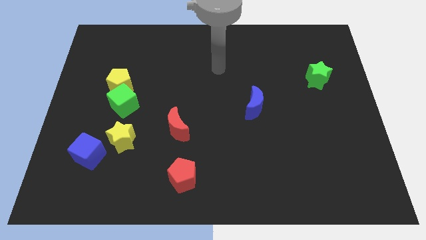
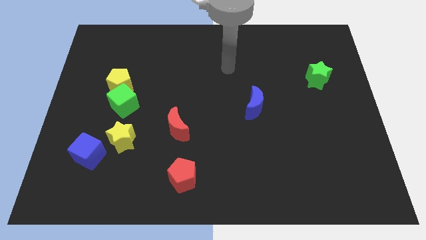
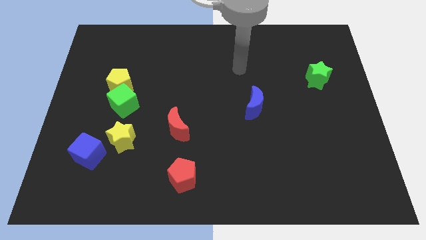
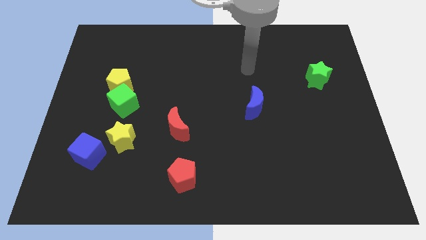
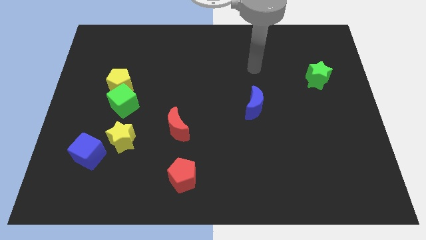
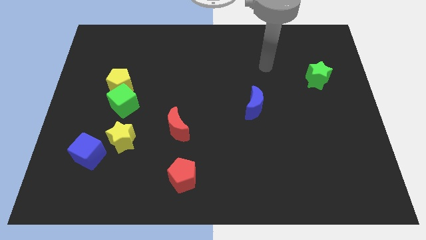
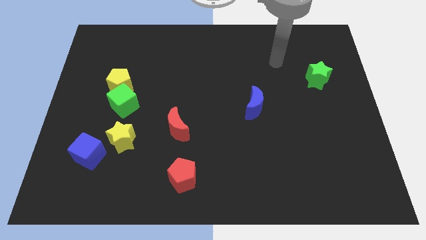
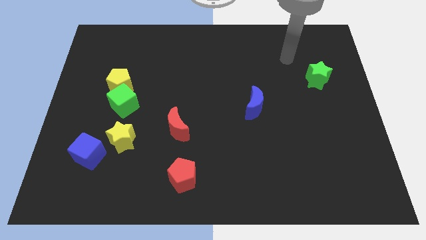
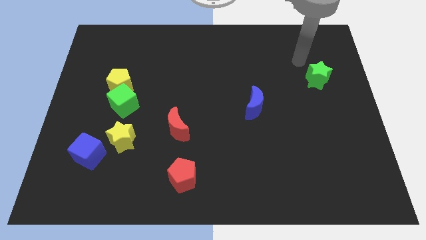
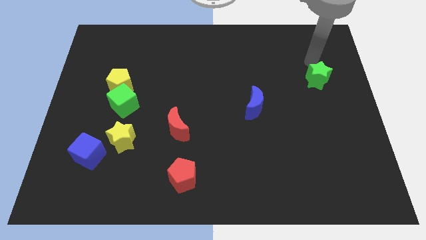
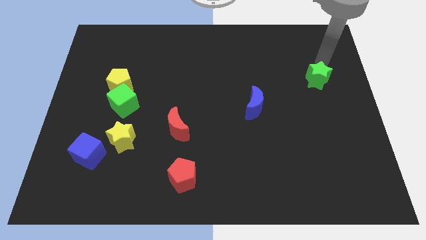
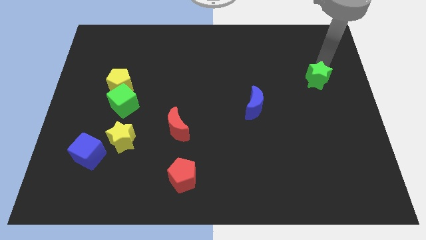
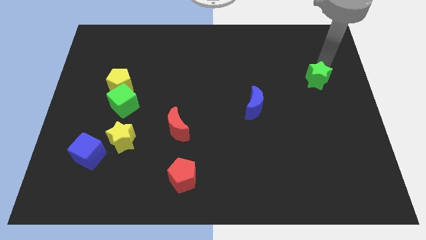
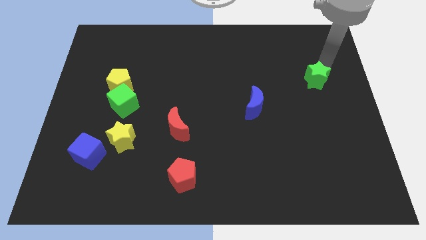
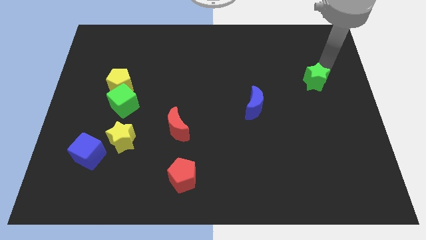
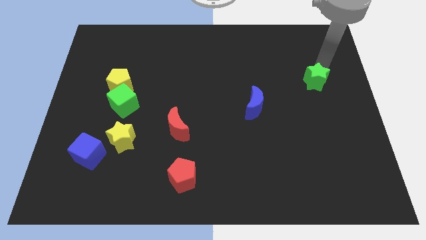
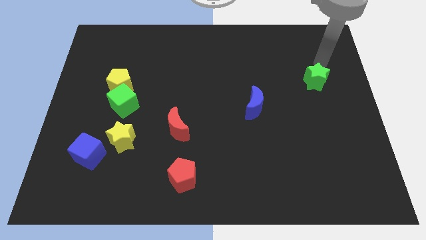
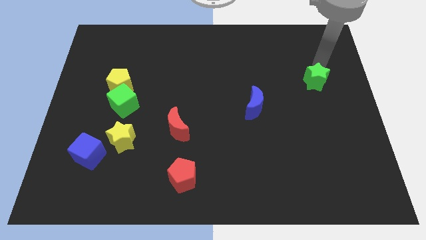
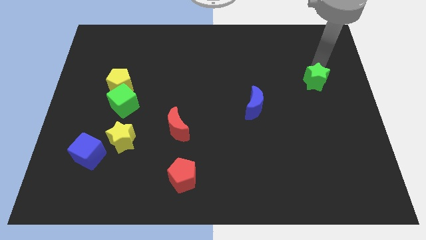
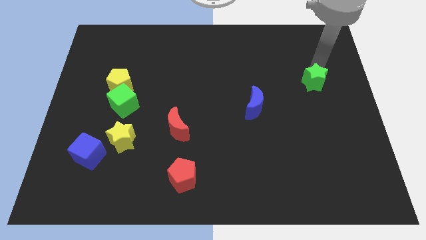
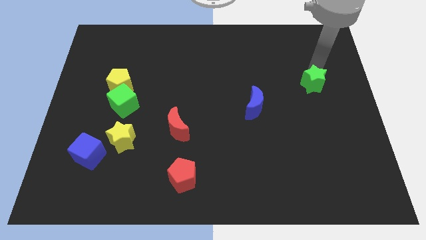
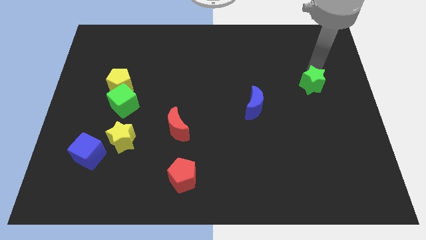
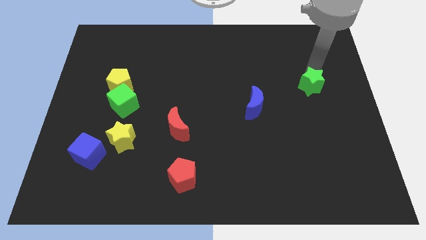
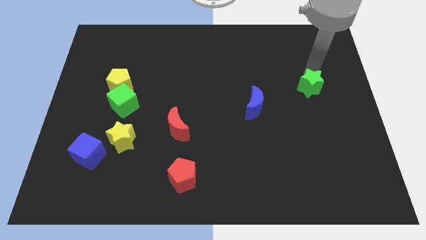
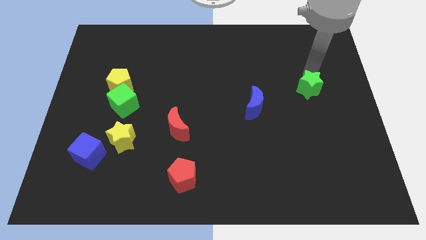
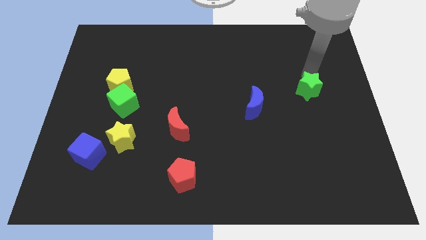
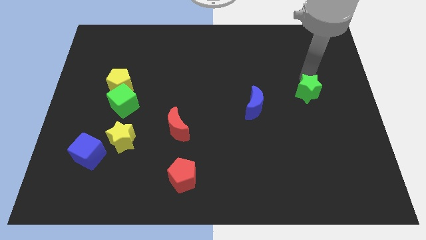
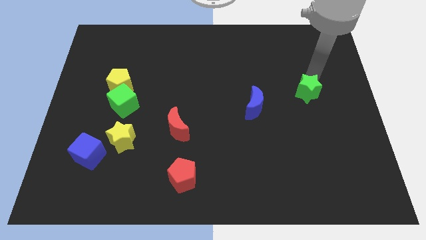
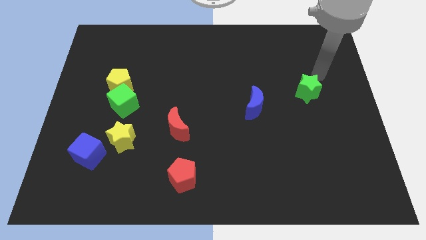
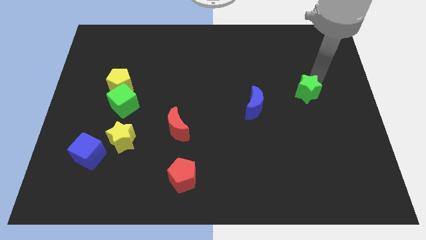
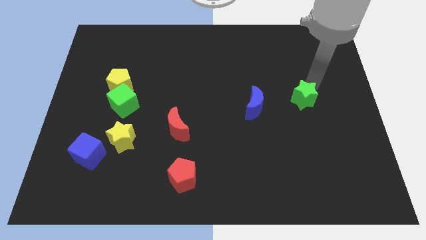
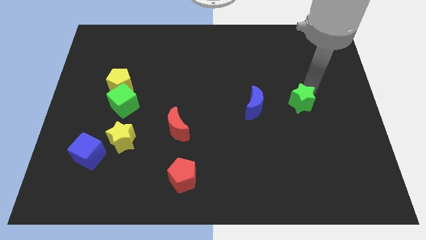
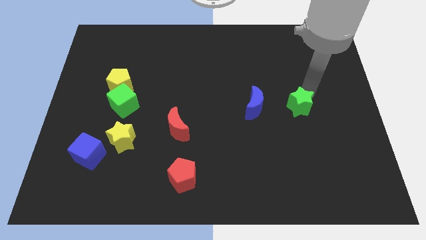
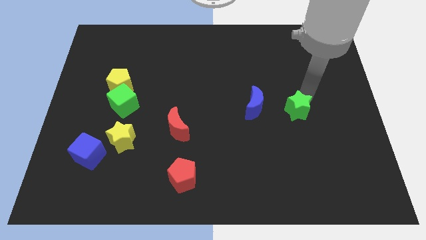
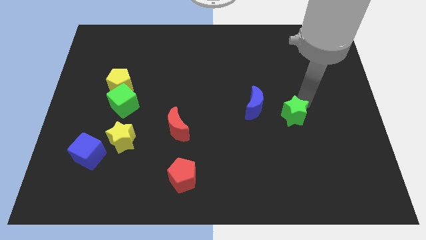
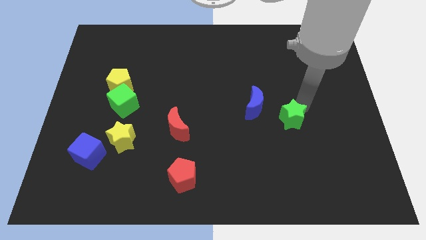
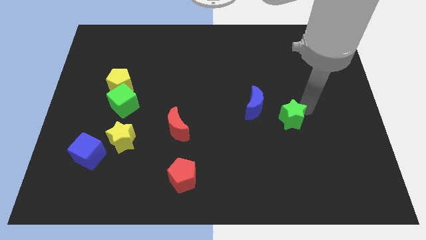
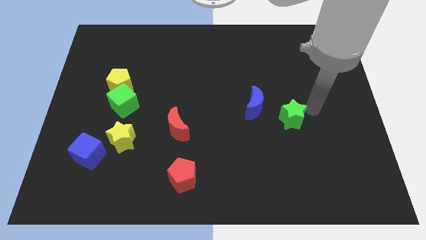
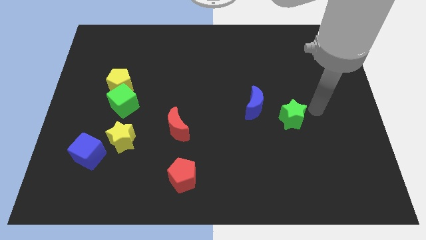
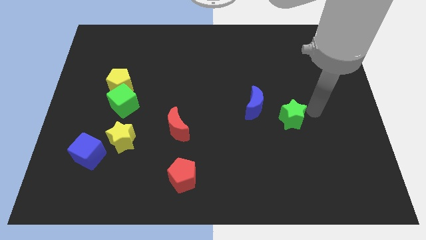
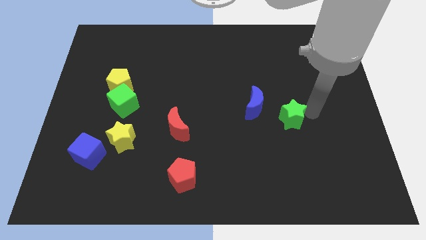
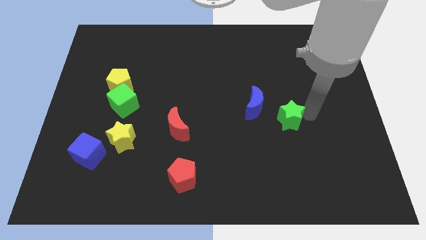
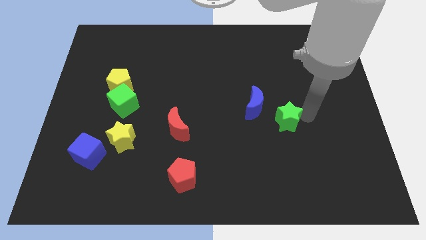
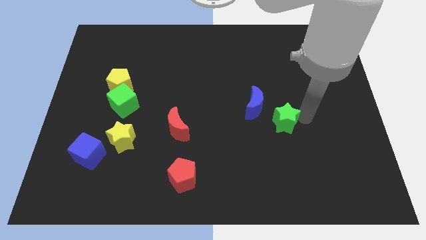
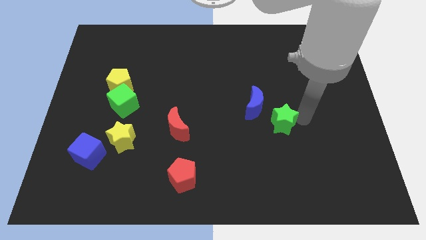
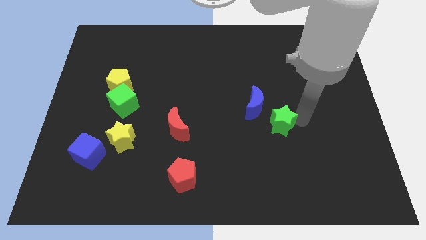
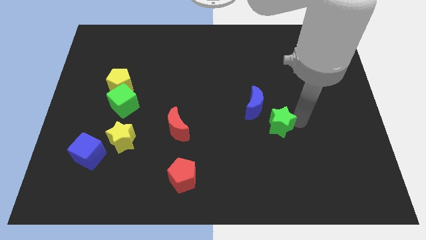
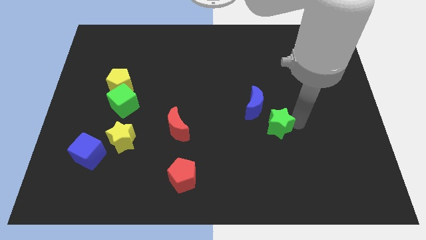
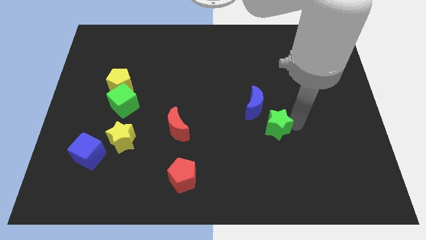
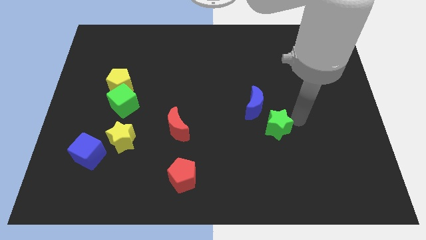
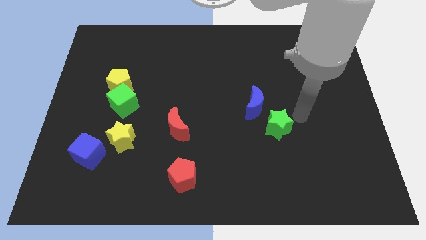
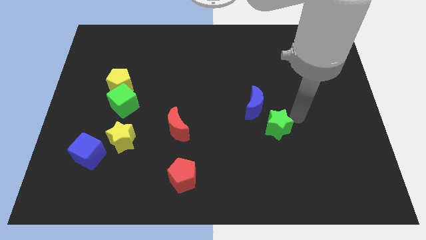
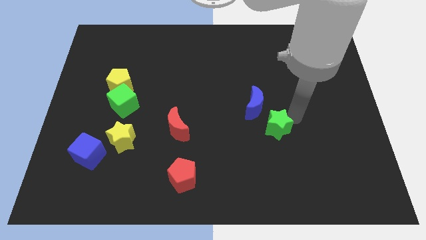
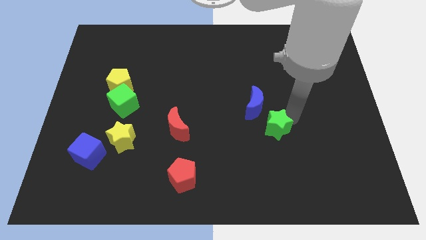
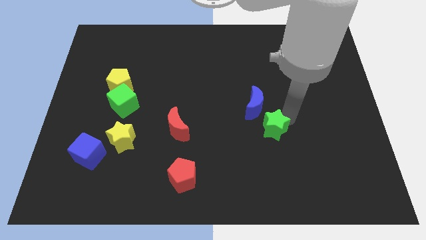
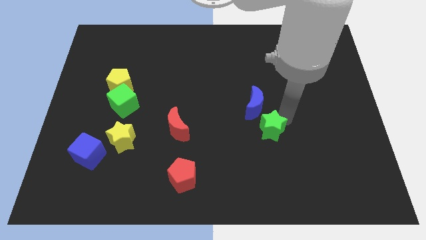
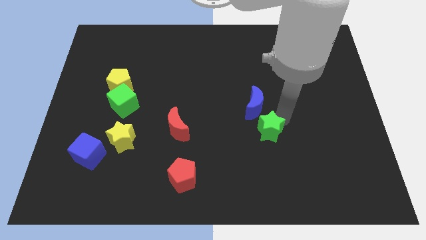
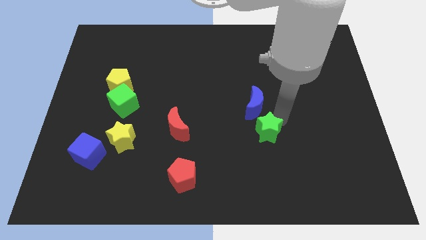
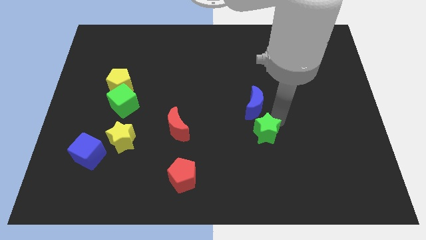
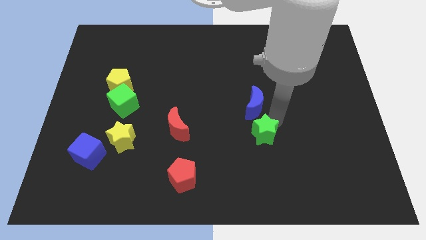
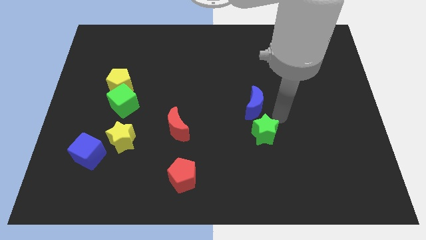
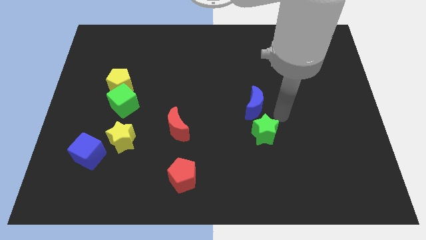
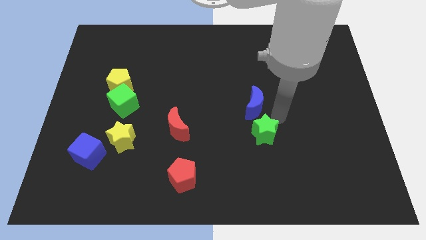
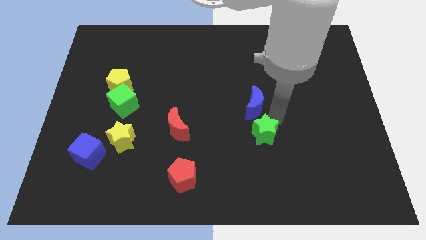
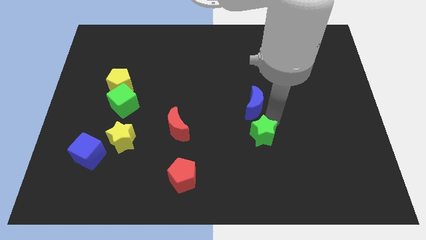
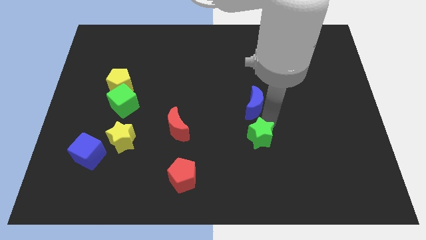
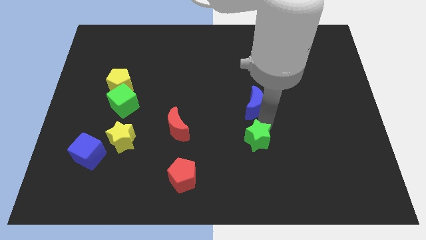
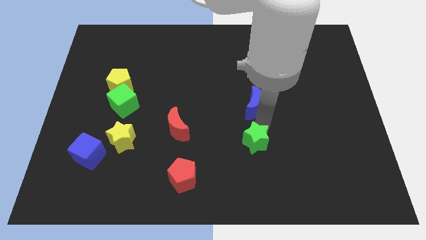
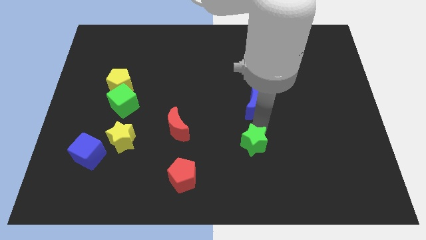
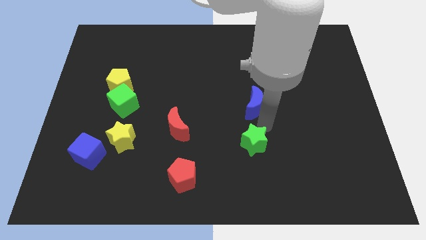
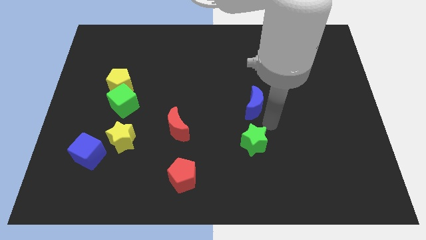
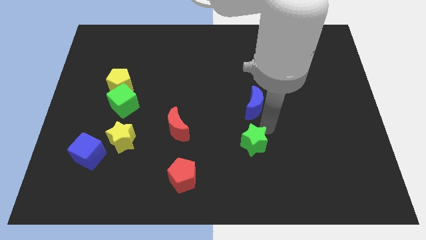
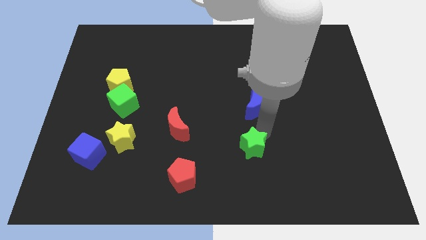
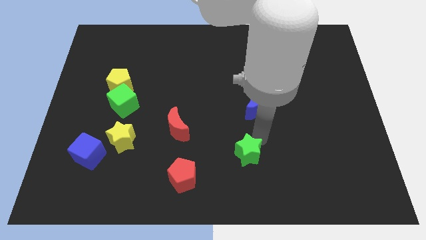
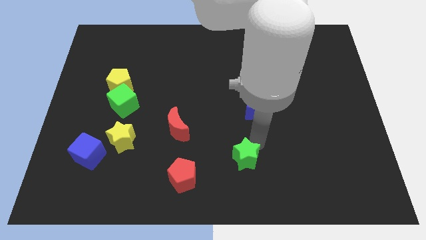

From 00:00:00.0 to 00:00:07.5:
move the green star right of the red pentagon
